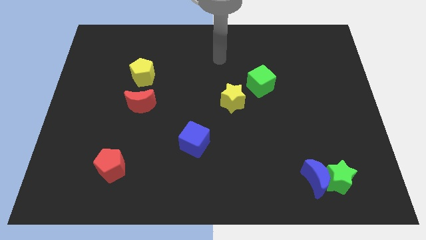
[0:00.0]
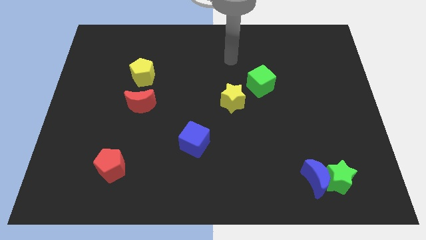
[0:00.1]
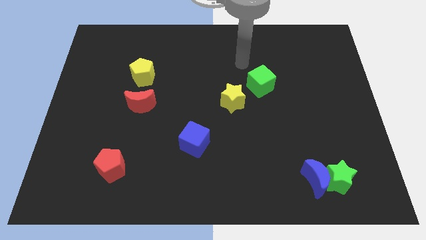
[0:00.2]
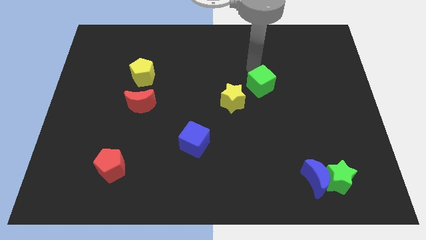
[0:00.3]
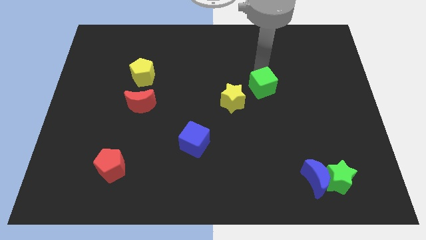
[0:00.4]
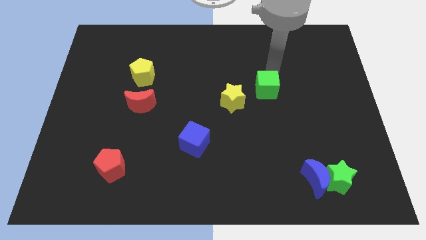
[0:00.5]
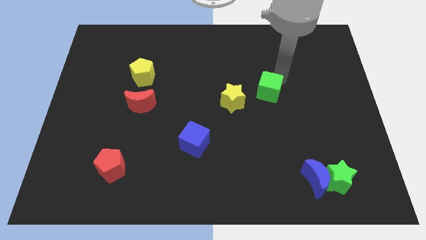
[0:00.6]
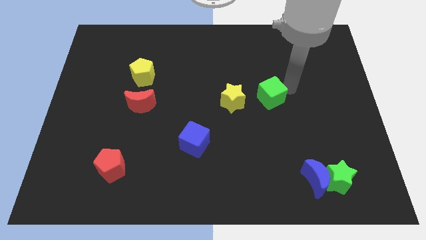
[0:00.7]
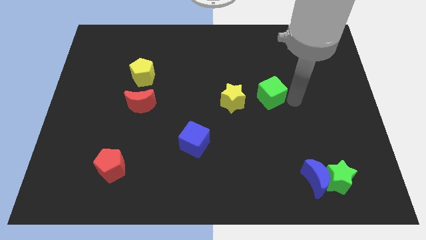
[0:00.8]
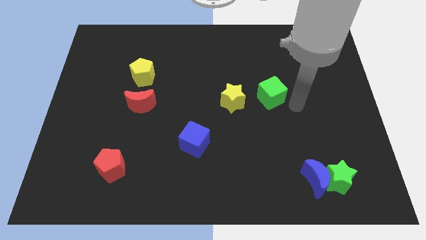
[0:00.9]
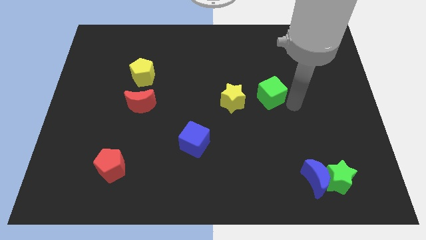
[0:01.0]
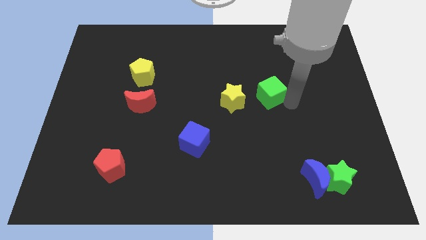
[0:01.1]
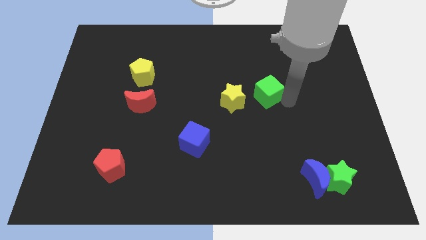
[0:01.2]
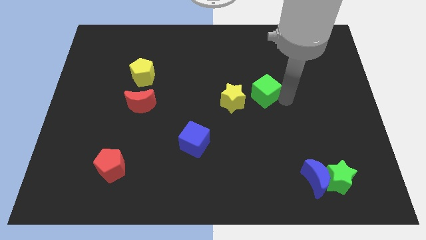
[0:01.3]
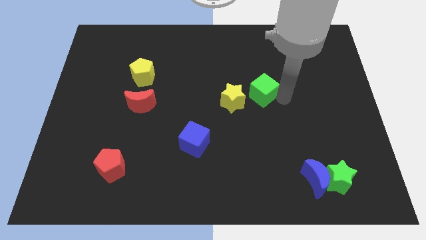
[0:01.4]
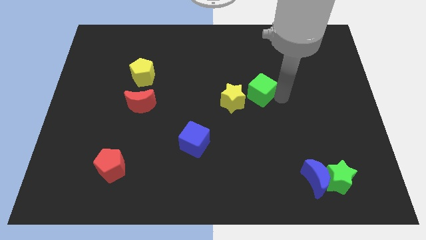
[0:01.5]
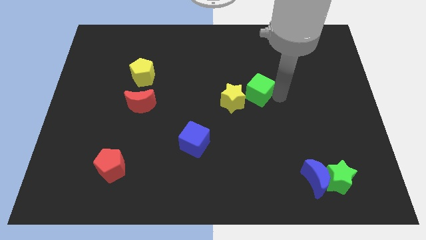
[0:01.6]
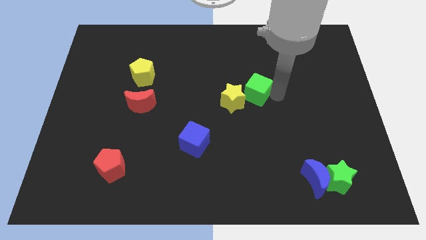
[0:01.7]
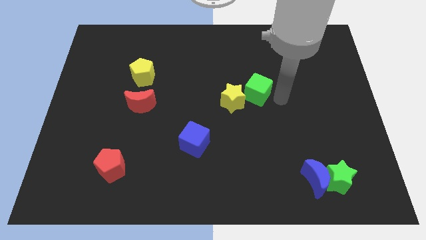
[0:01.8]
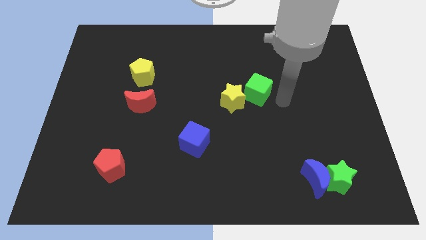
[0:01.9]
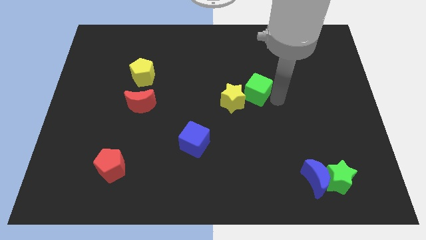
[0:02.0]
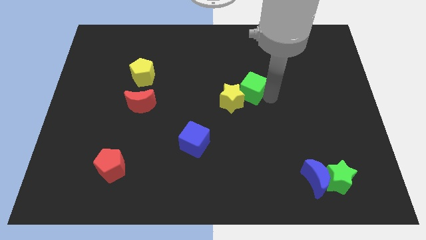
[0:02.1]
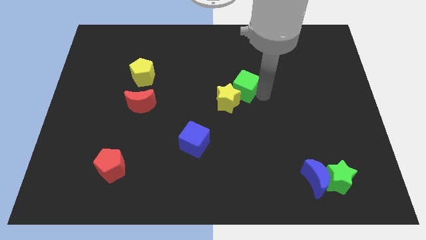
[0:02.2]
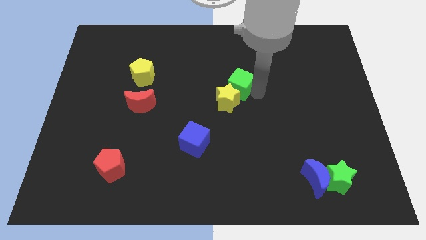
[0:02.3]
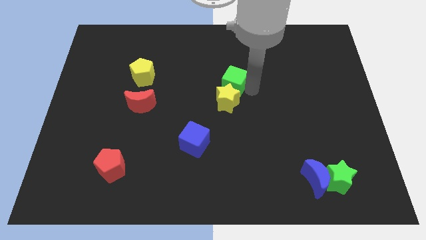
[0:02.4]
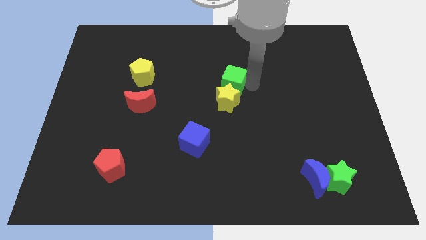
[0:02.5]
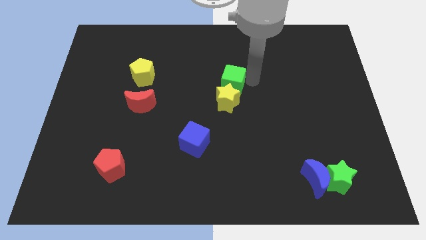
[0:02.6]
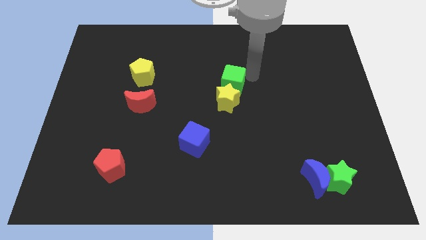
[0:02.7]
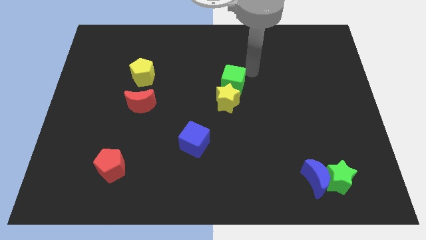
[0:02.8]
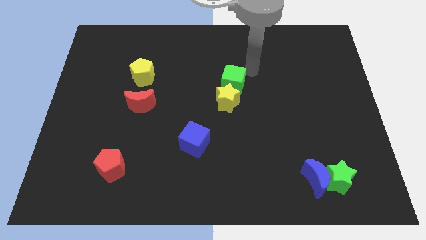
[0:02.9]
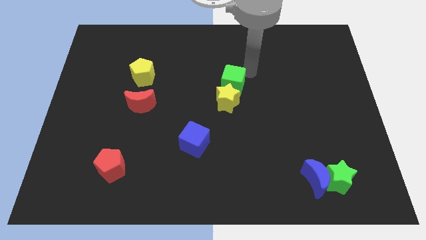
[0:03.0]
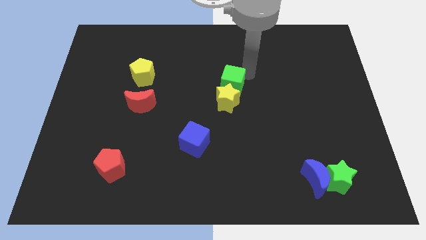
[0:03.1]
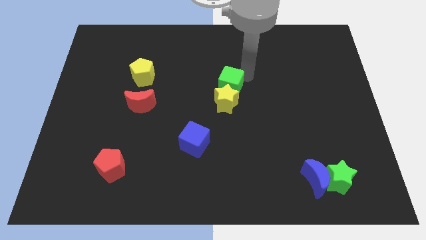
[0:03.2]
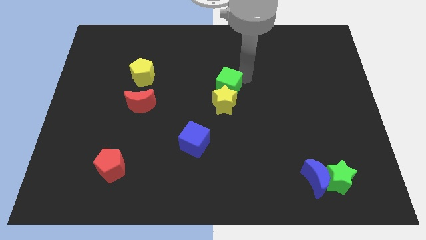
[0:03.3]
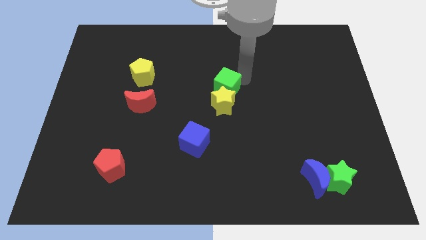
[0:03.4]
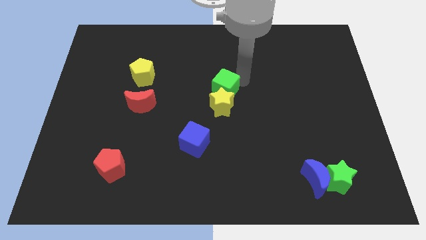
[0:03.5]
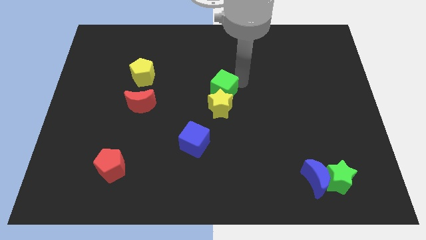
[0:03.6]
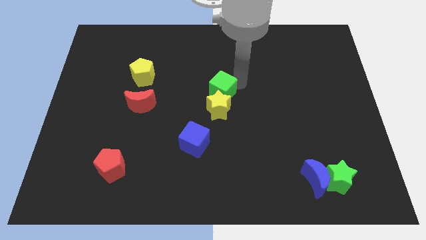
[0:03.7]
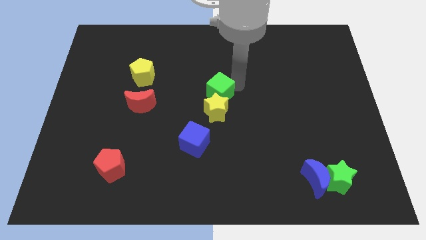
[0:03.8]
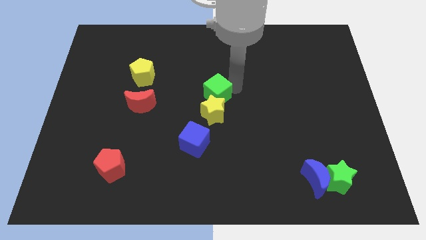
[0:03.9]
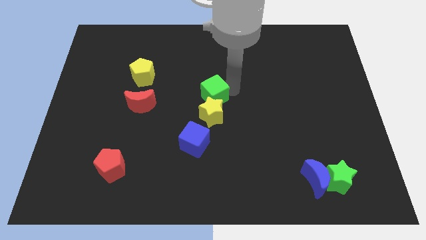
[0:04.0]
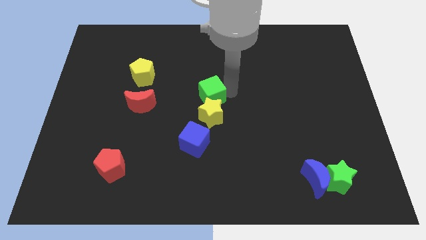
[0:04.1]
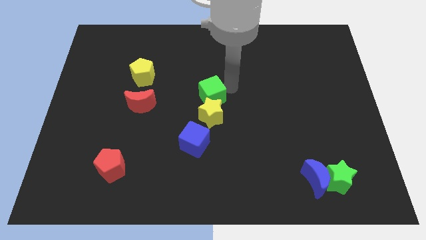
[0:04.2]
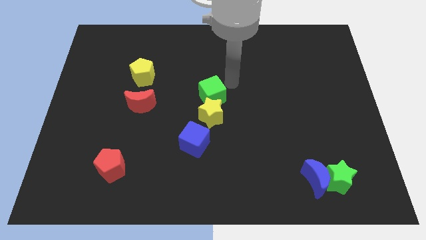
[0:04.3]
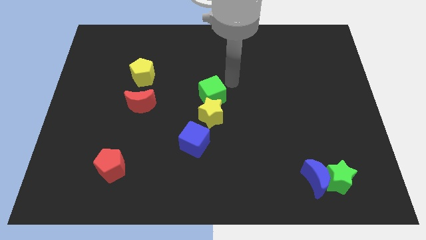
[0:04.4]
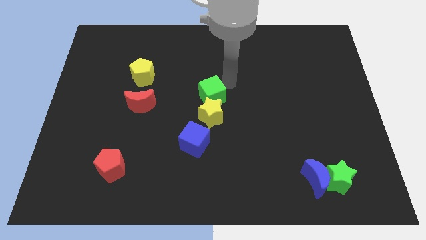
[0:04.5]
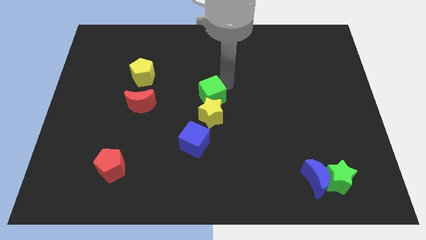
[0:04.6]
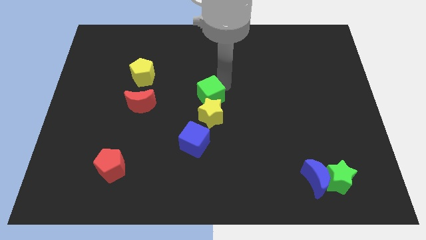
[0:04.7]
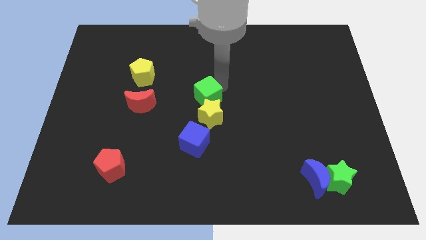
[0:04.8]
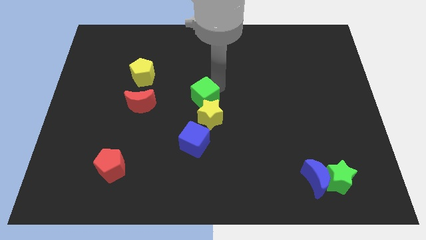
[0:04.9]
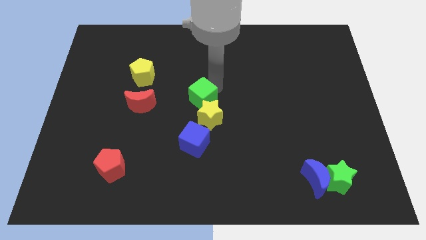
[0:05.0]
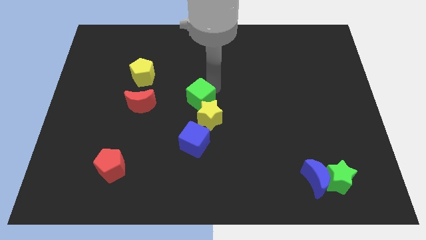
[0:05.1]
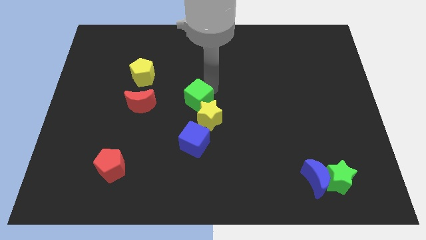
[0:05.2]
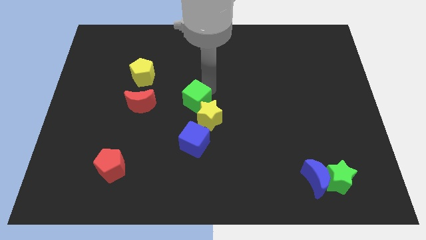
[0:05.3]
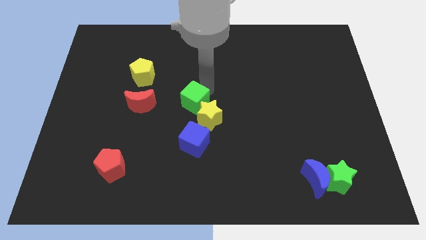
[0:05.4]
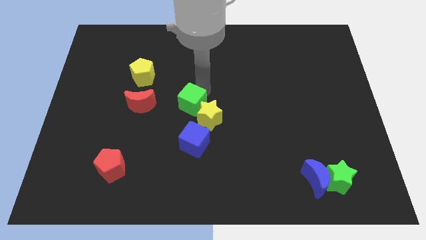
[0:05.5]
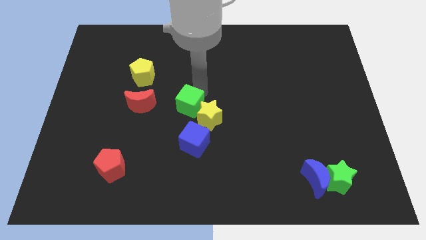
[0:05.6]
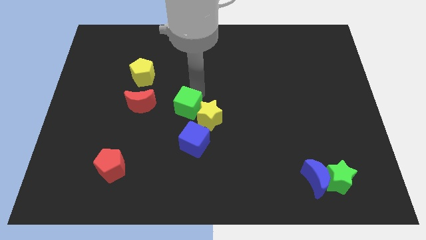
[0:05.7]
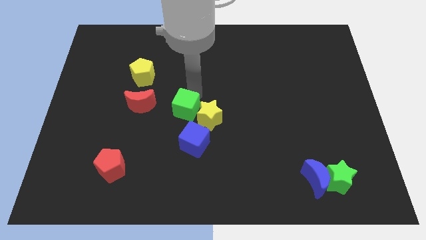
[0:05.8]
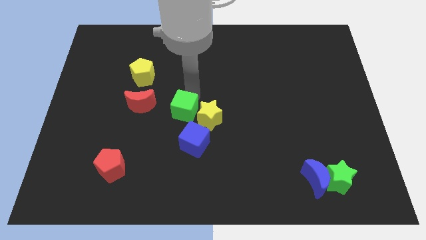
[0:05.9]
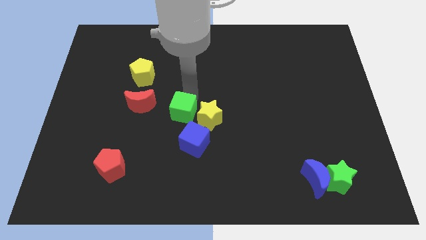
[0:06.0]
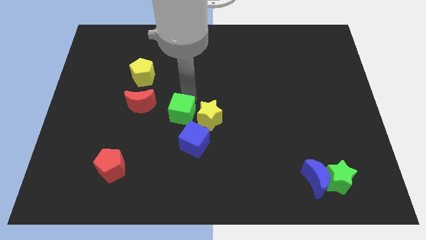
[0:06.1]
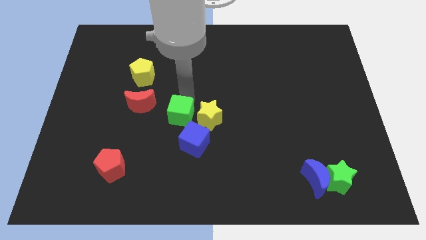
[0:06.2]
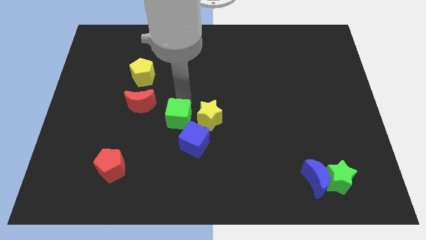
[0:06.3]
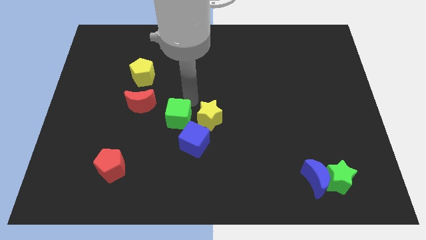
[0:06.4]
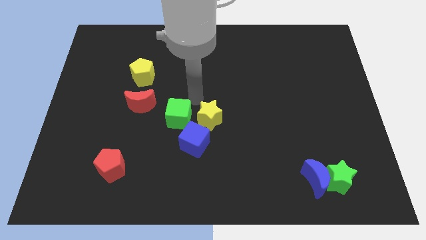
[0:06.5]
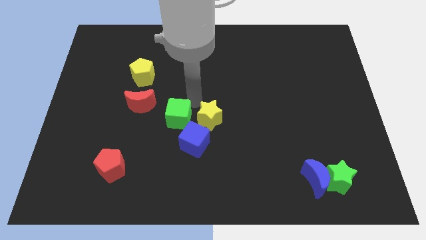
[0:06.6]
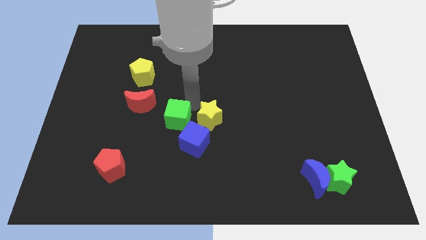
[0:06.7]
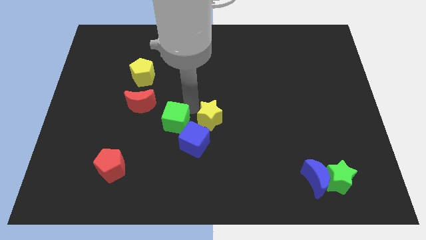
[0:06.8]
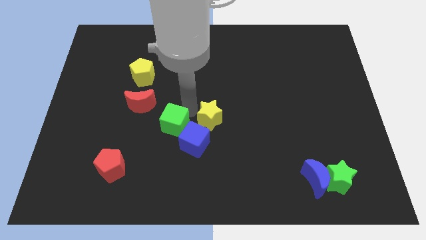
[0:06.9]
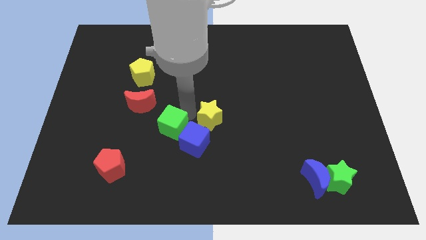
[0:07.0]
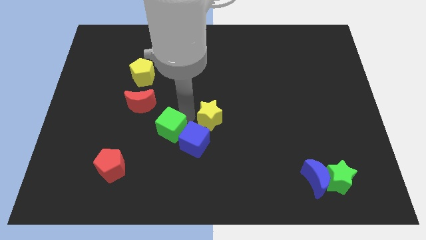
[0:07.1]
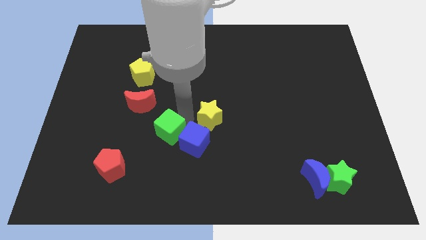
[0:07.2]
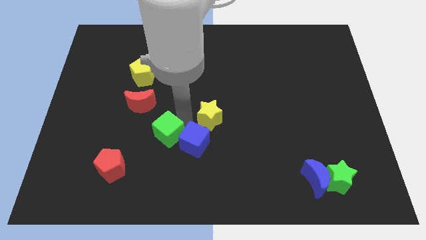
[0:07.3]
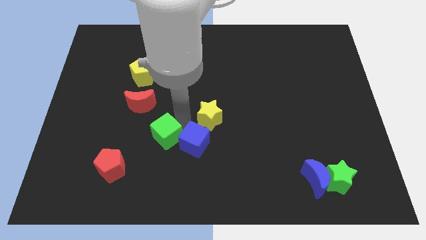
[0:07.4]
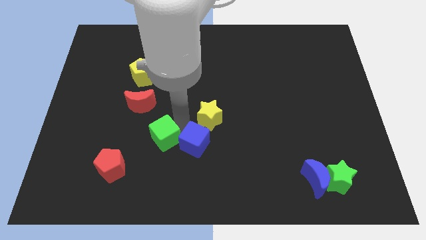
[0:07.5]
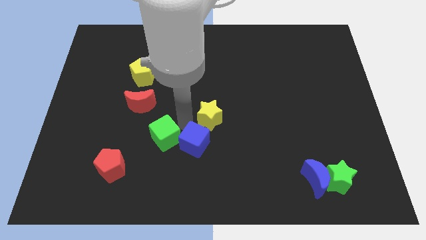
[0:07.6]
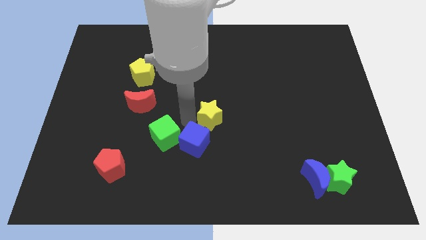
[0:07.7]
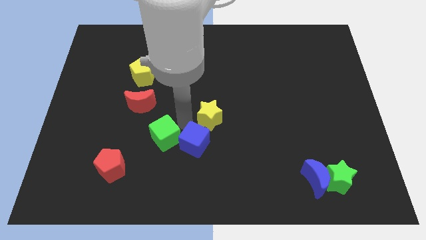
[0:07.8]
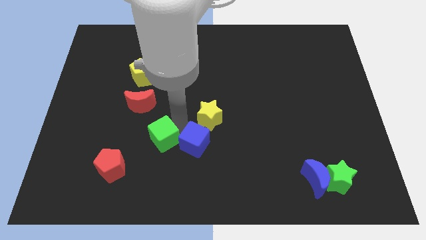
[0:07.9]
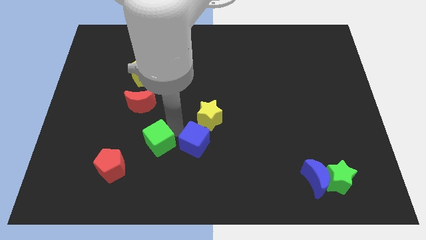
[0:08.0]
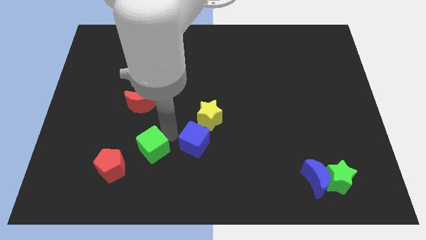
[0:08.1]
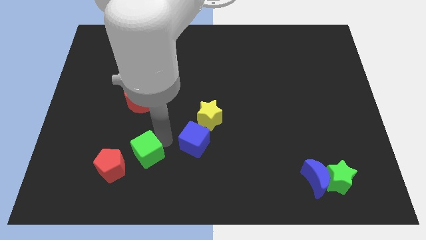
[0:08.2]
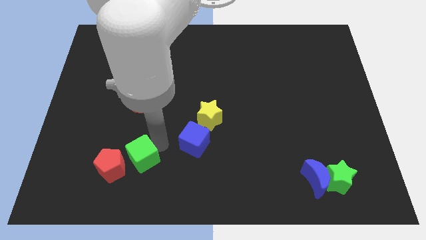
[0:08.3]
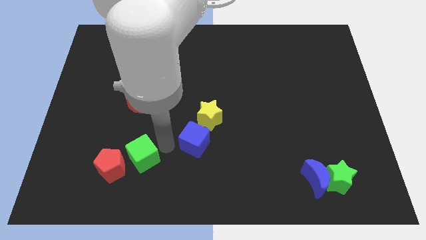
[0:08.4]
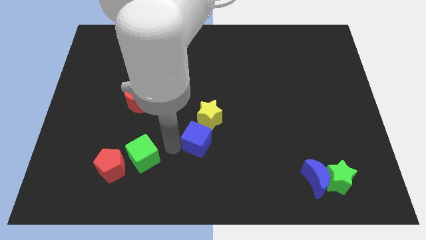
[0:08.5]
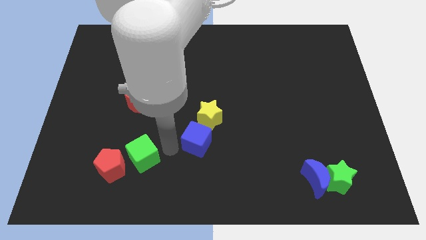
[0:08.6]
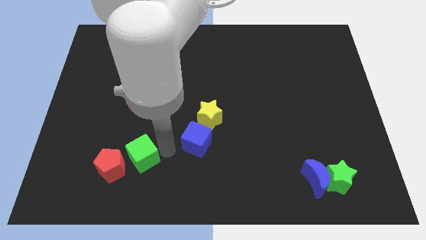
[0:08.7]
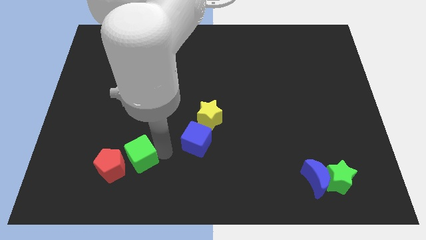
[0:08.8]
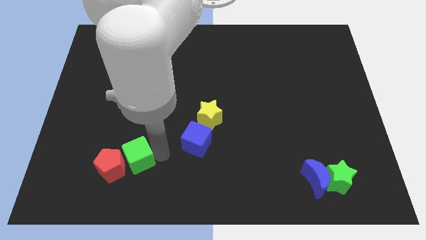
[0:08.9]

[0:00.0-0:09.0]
slide the green cube to the red pentagon
